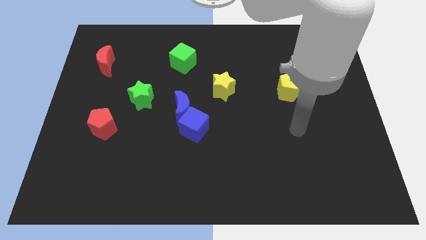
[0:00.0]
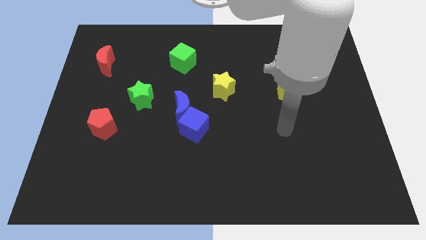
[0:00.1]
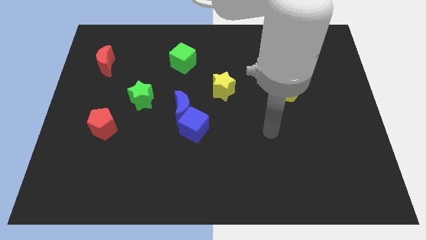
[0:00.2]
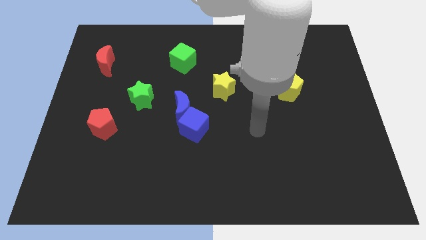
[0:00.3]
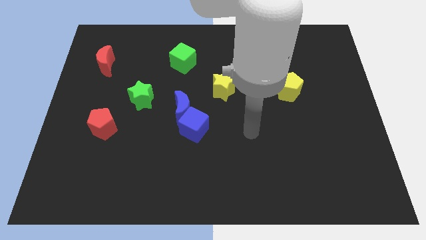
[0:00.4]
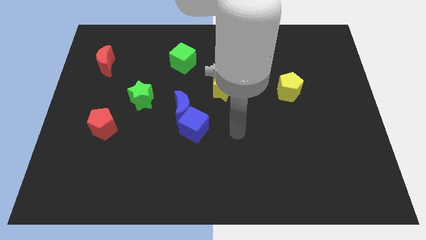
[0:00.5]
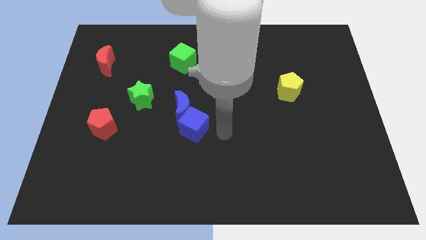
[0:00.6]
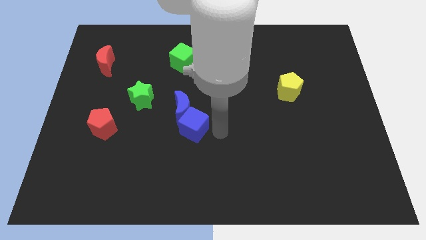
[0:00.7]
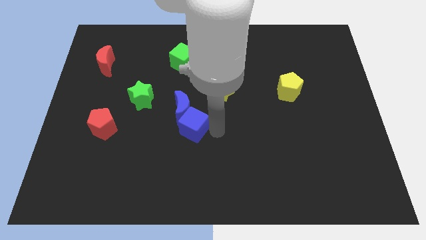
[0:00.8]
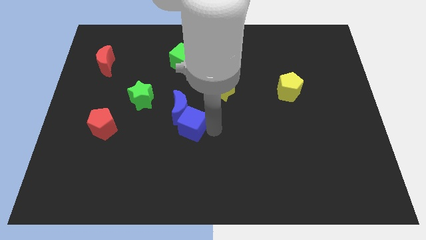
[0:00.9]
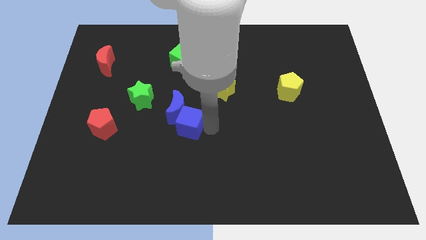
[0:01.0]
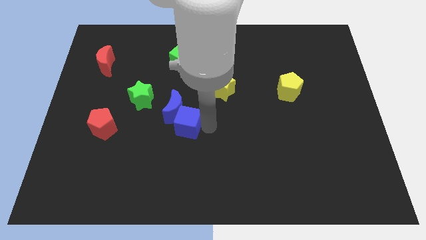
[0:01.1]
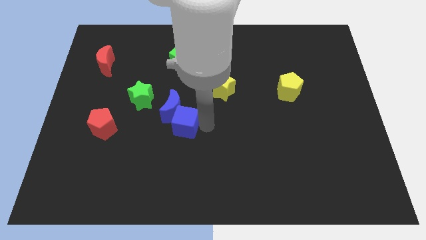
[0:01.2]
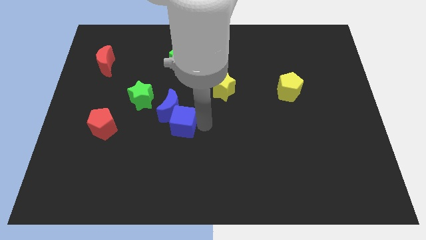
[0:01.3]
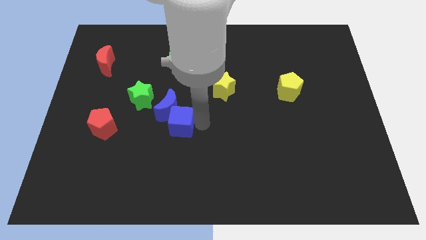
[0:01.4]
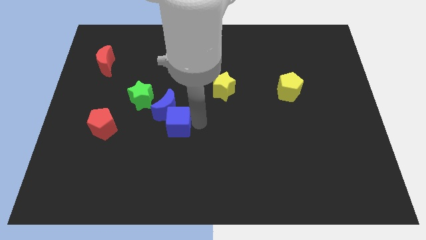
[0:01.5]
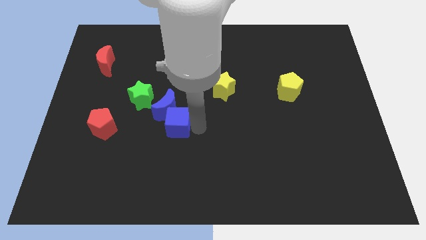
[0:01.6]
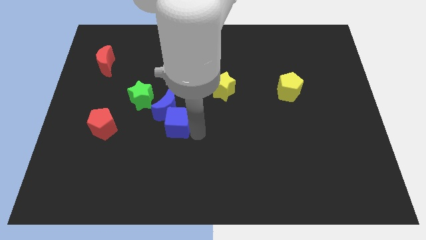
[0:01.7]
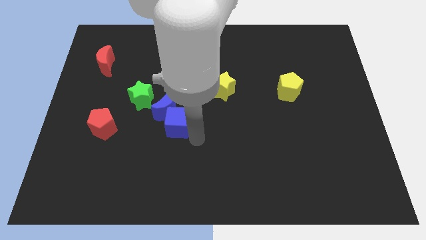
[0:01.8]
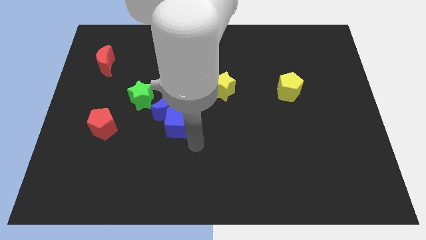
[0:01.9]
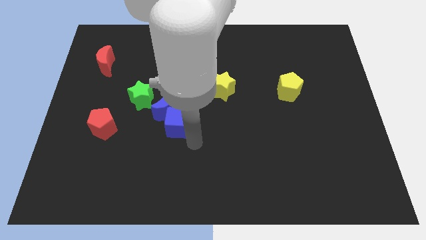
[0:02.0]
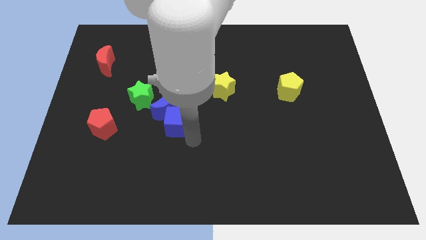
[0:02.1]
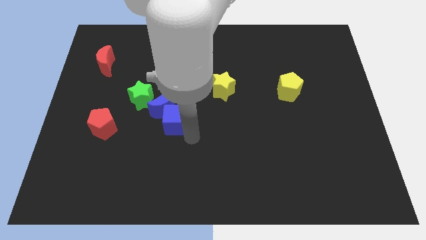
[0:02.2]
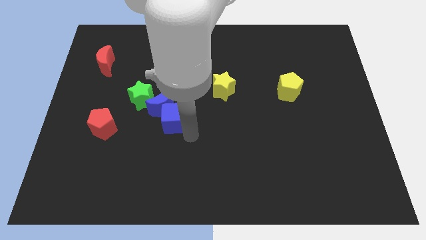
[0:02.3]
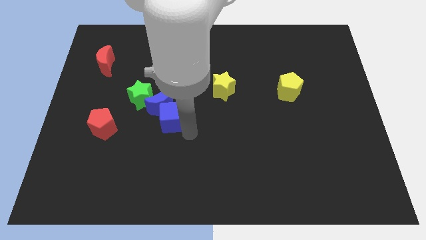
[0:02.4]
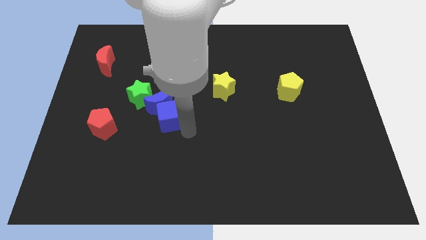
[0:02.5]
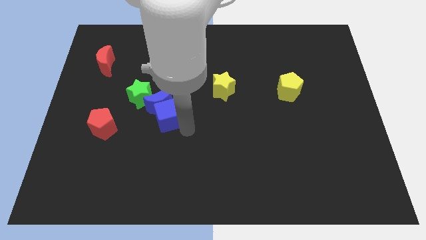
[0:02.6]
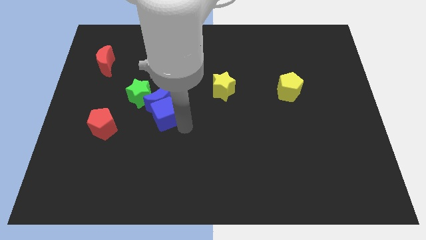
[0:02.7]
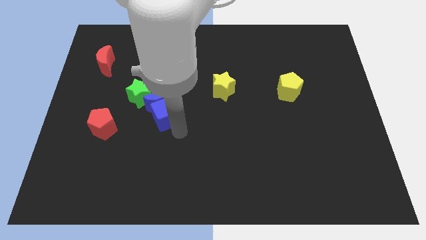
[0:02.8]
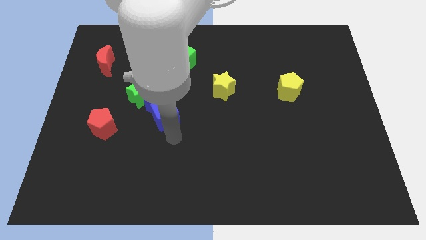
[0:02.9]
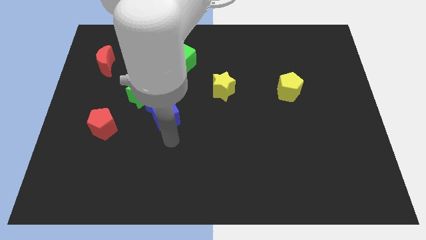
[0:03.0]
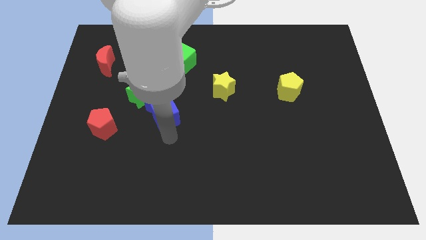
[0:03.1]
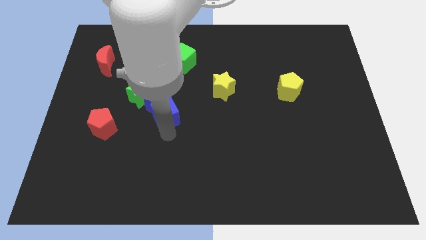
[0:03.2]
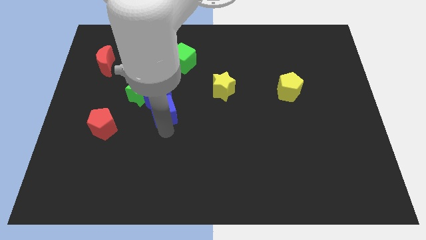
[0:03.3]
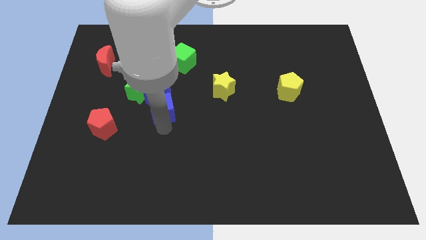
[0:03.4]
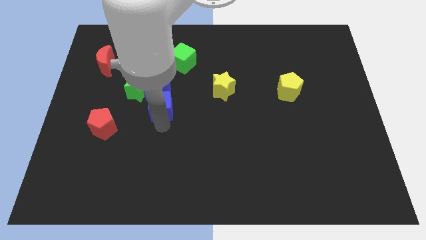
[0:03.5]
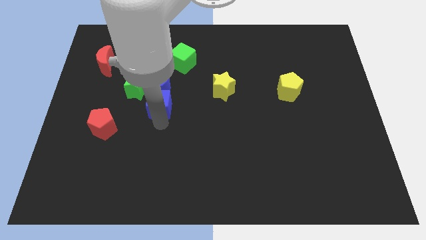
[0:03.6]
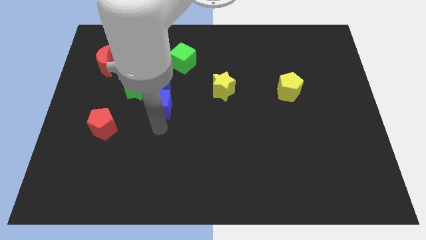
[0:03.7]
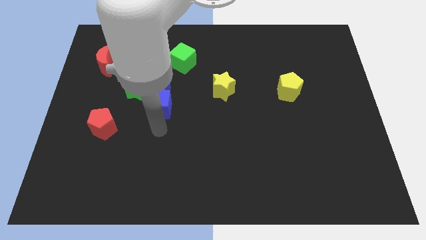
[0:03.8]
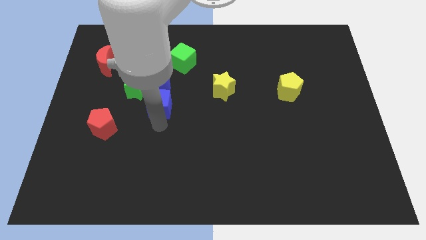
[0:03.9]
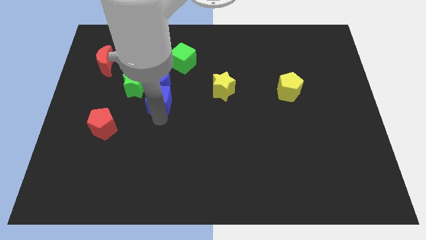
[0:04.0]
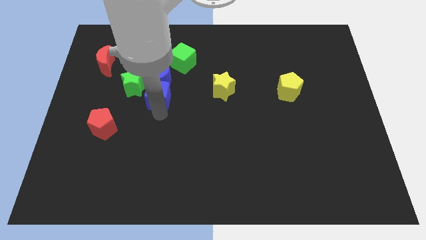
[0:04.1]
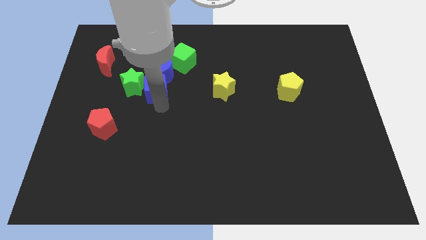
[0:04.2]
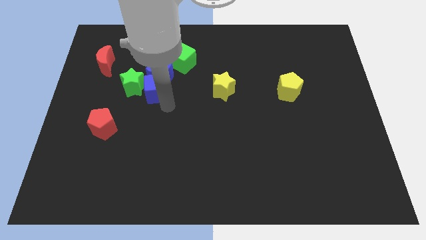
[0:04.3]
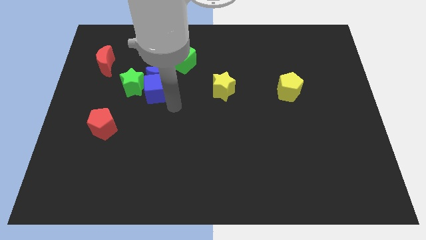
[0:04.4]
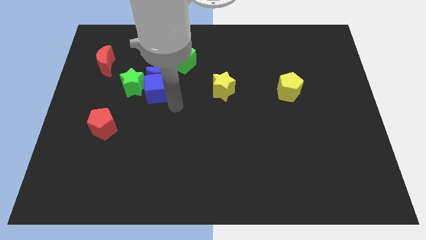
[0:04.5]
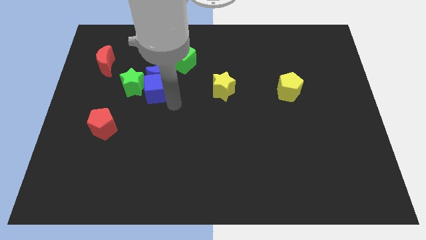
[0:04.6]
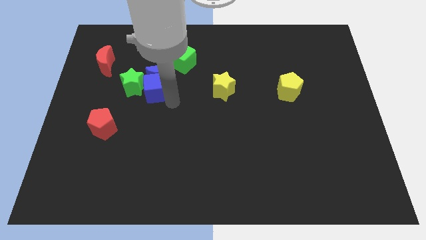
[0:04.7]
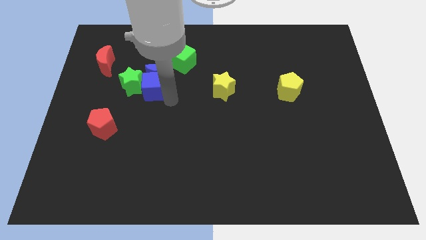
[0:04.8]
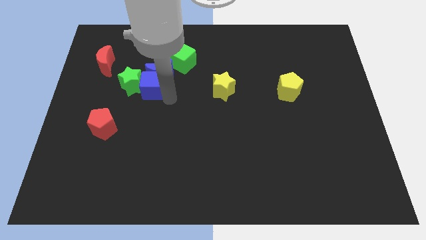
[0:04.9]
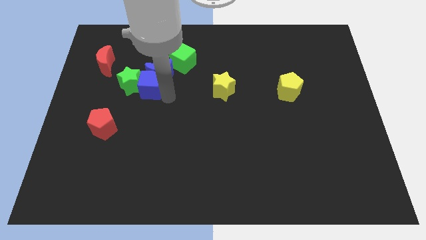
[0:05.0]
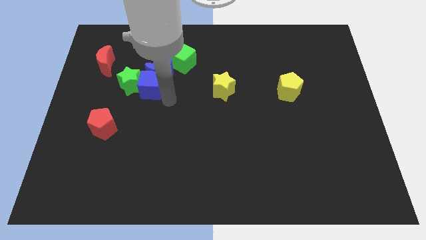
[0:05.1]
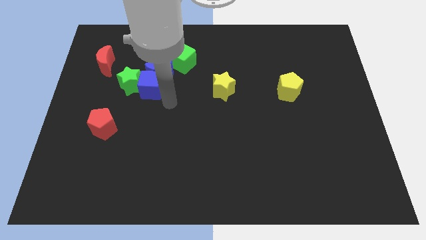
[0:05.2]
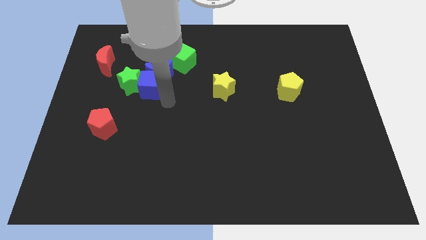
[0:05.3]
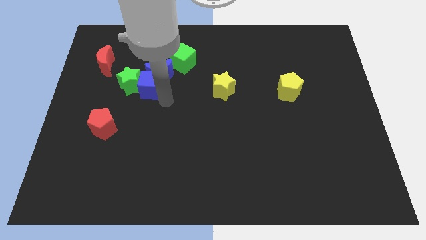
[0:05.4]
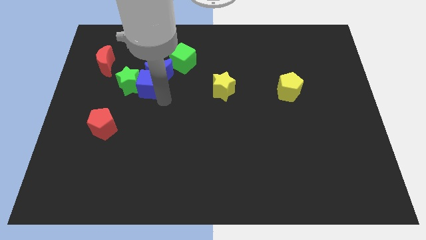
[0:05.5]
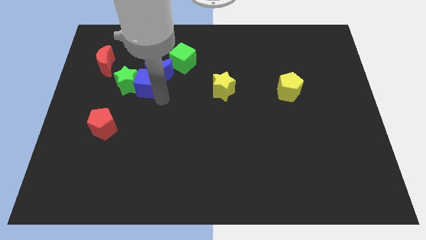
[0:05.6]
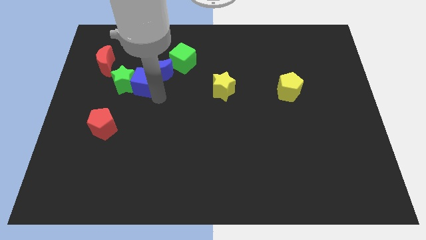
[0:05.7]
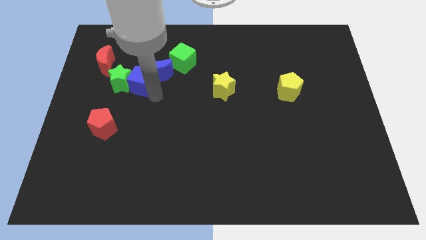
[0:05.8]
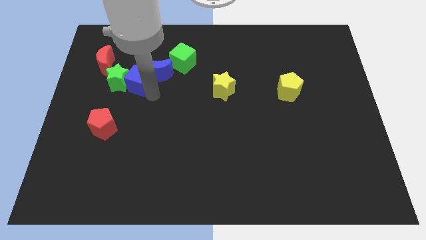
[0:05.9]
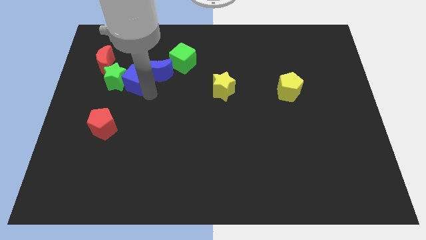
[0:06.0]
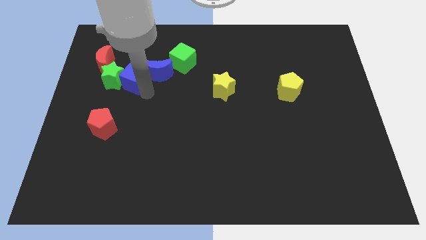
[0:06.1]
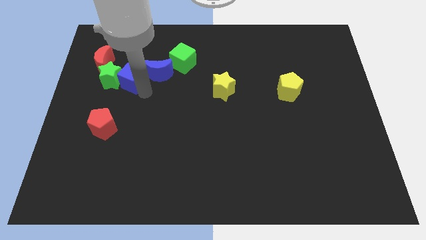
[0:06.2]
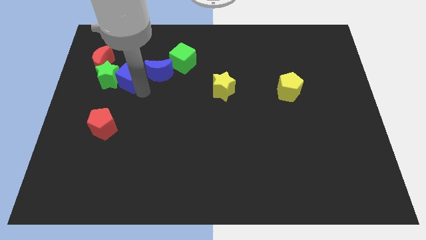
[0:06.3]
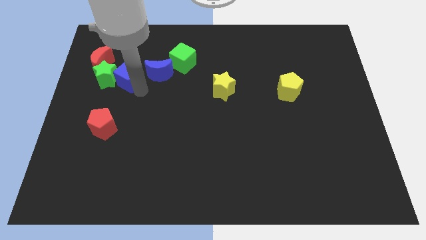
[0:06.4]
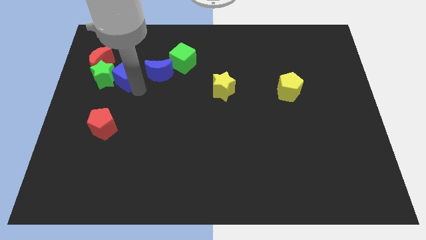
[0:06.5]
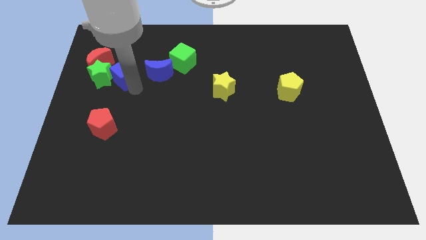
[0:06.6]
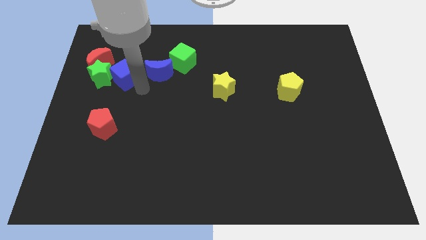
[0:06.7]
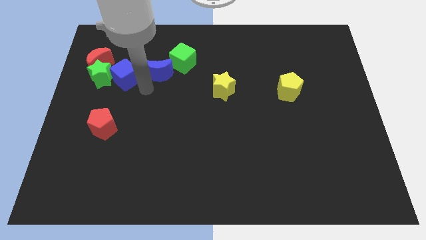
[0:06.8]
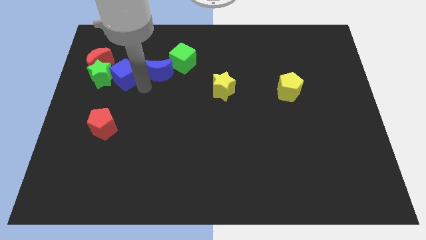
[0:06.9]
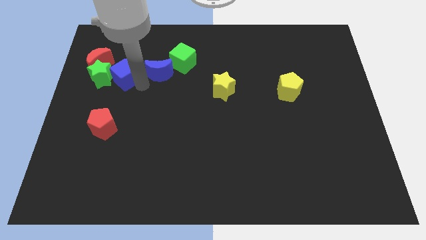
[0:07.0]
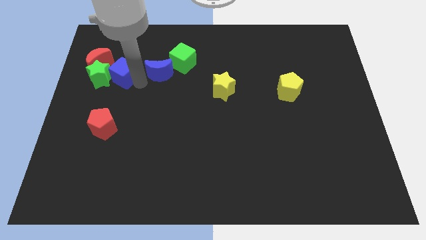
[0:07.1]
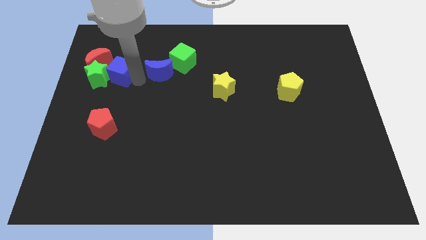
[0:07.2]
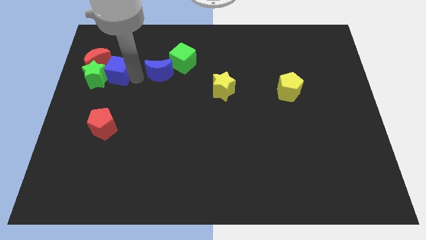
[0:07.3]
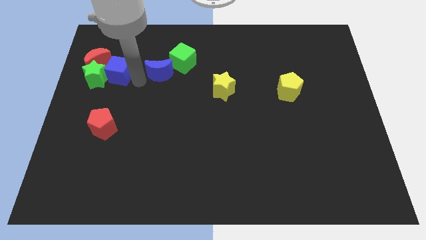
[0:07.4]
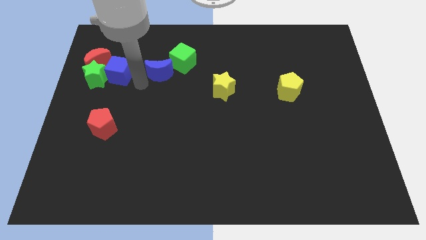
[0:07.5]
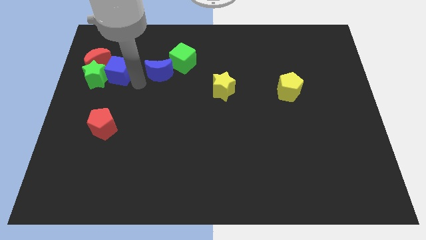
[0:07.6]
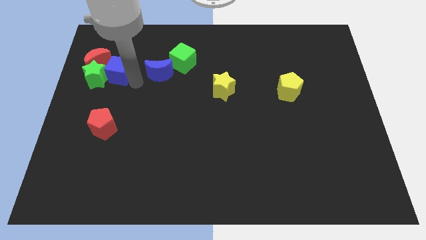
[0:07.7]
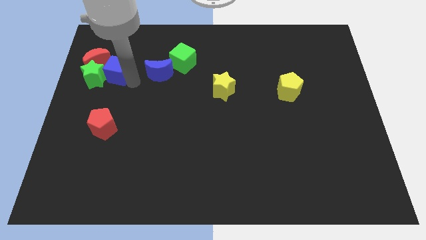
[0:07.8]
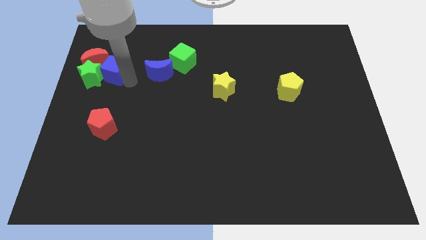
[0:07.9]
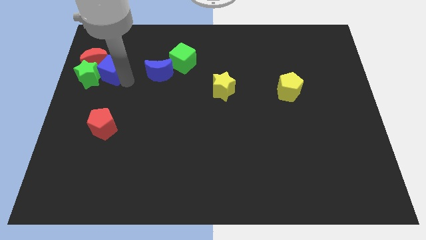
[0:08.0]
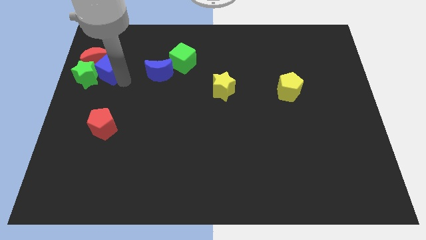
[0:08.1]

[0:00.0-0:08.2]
push the blue cube towards the red moon
